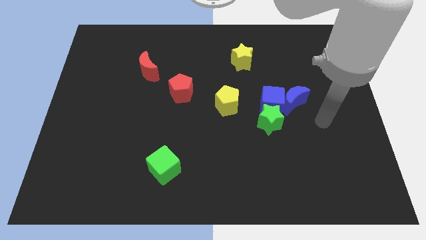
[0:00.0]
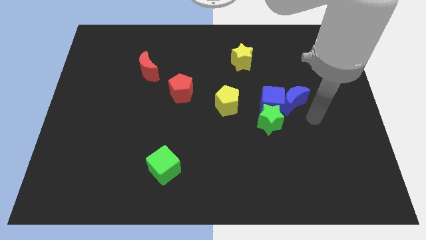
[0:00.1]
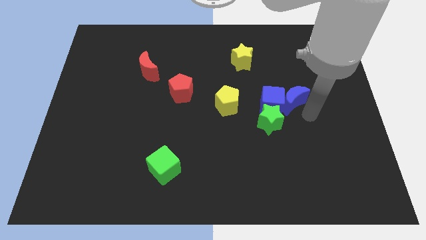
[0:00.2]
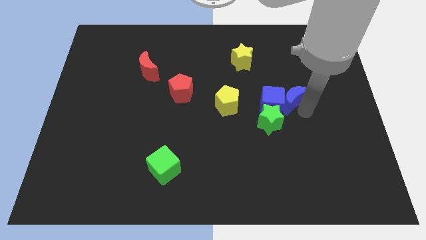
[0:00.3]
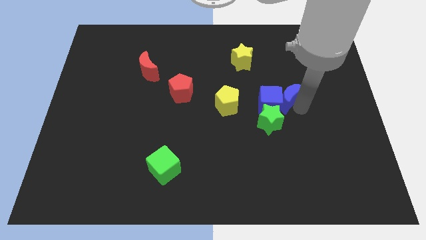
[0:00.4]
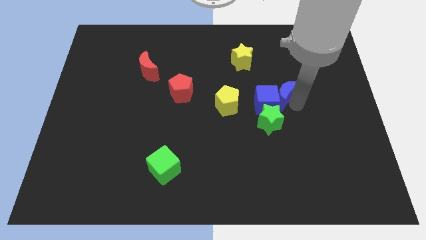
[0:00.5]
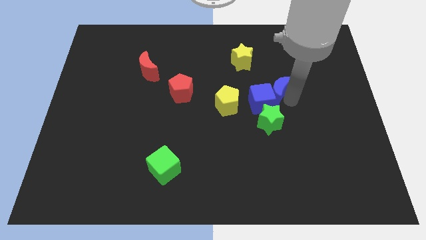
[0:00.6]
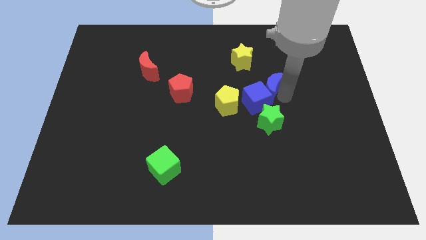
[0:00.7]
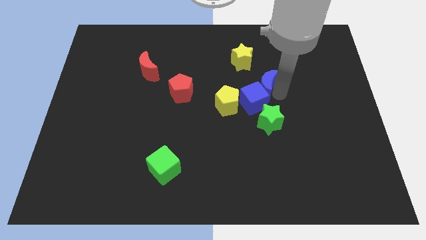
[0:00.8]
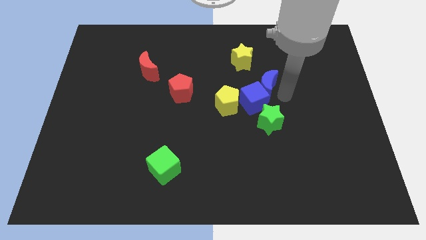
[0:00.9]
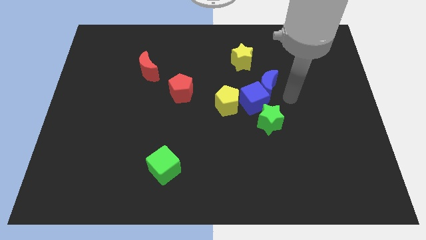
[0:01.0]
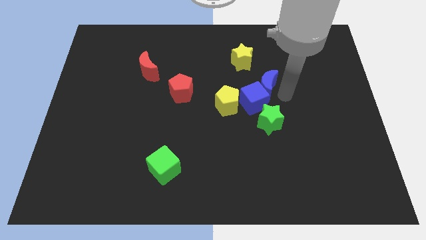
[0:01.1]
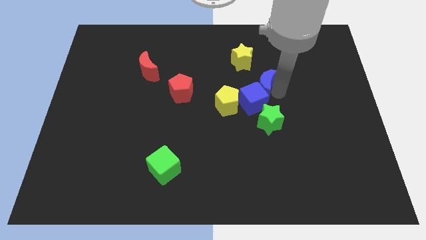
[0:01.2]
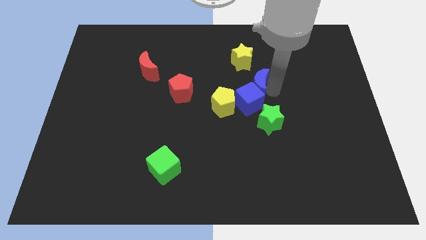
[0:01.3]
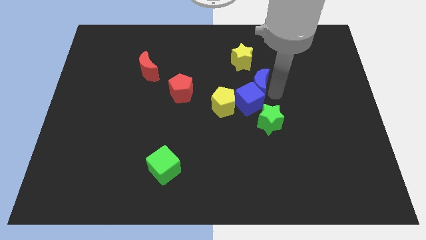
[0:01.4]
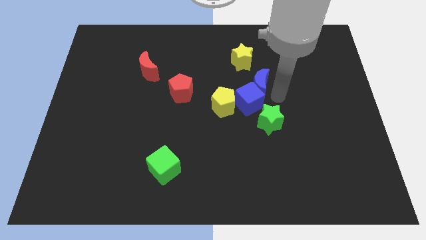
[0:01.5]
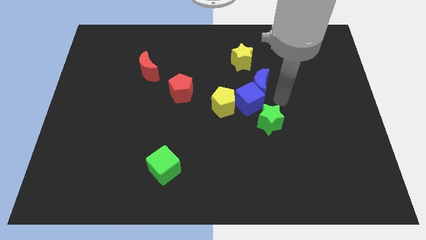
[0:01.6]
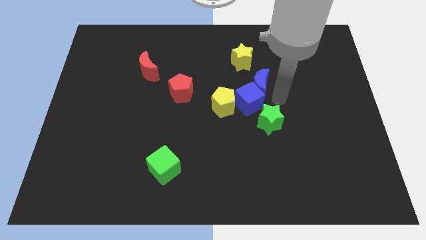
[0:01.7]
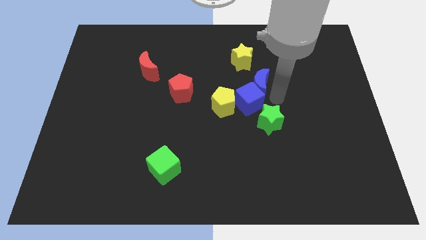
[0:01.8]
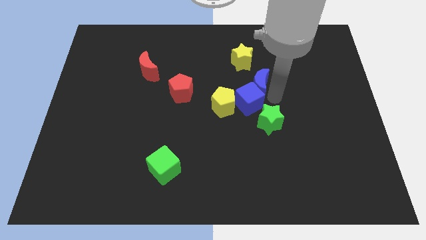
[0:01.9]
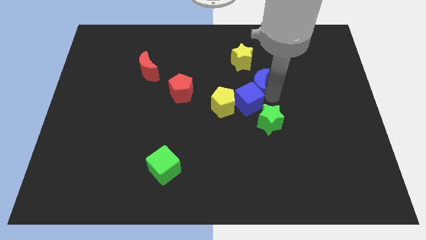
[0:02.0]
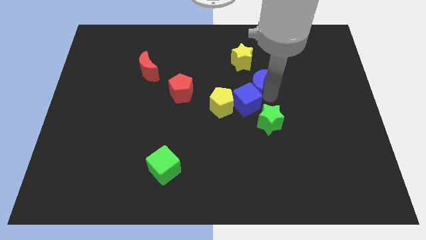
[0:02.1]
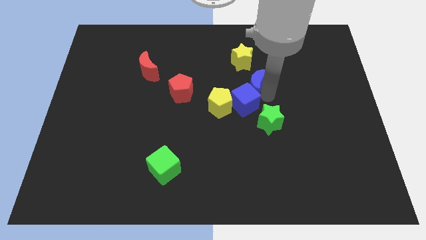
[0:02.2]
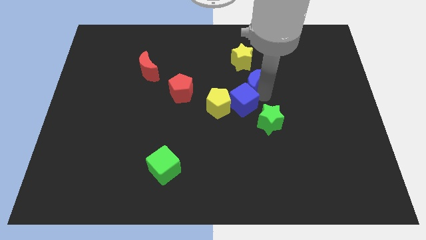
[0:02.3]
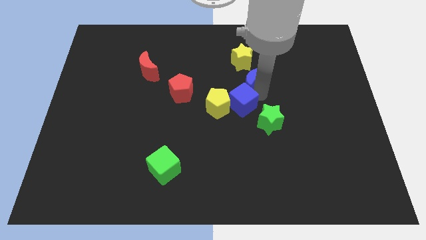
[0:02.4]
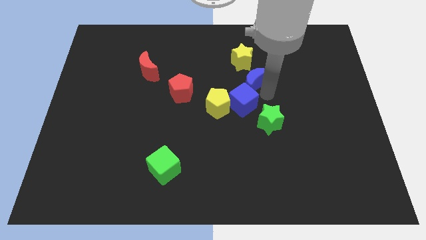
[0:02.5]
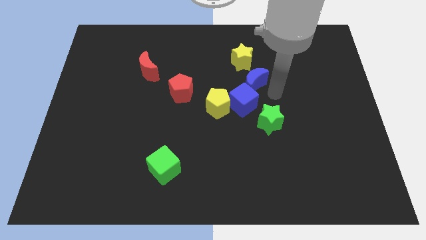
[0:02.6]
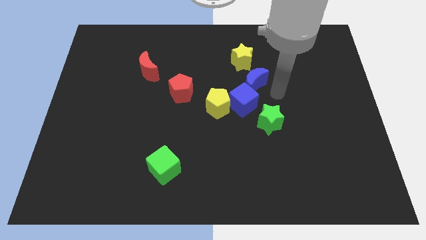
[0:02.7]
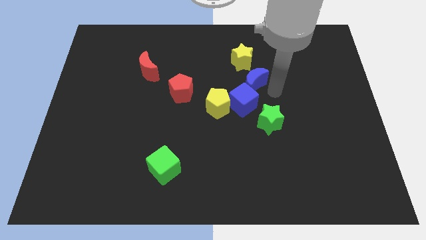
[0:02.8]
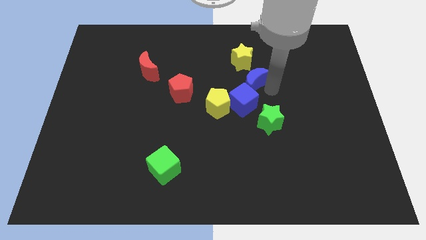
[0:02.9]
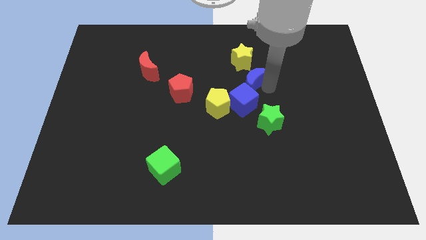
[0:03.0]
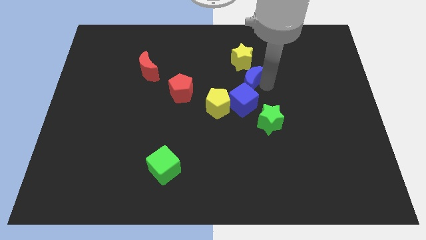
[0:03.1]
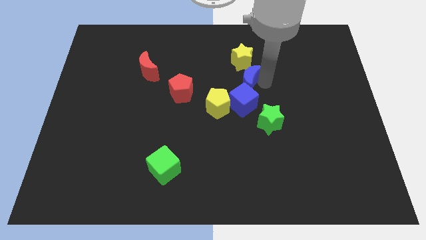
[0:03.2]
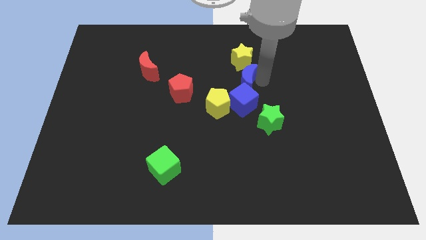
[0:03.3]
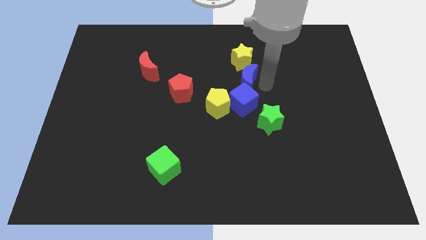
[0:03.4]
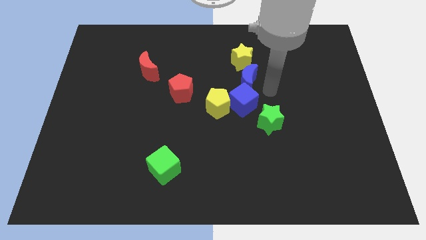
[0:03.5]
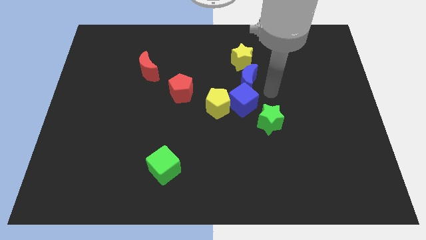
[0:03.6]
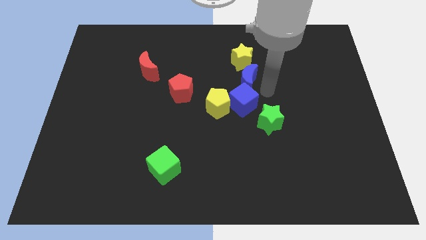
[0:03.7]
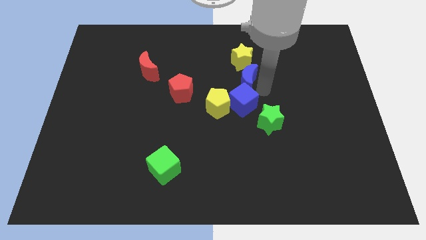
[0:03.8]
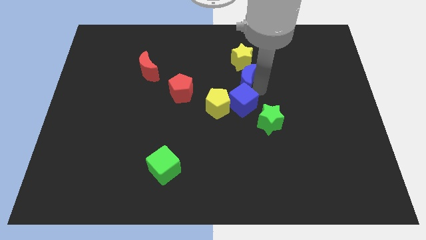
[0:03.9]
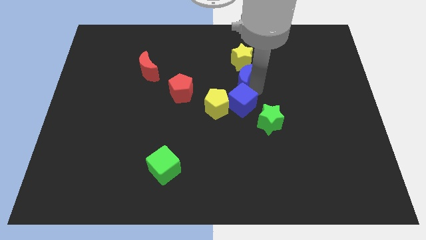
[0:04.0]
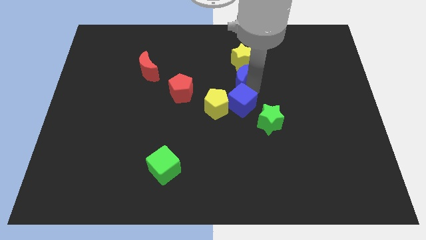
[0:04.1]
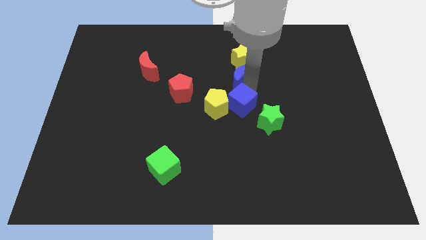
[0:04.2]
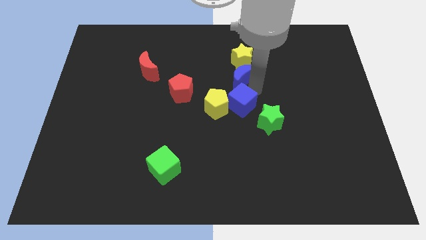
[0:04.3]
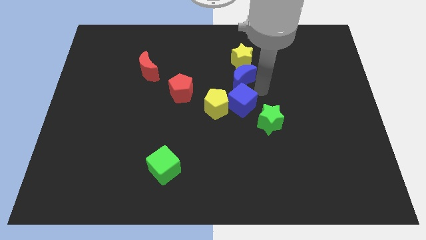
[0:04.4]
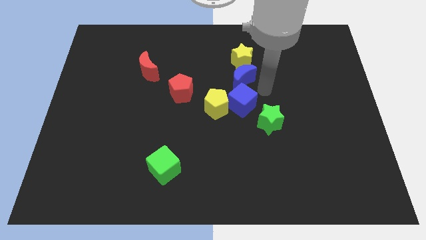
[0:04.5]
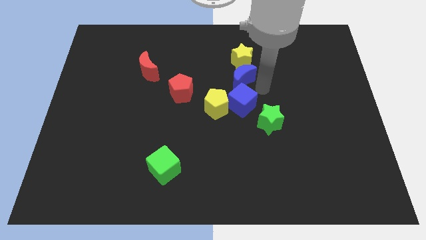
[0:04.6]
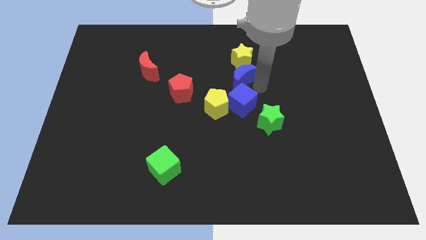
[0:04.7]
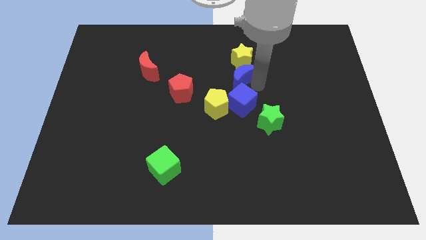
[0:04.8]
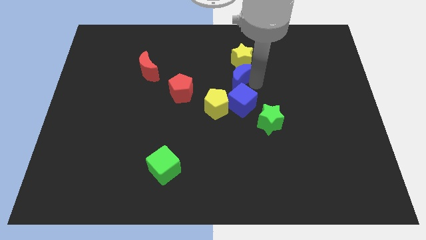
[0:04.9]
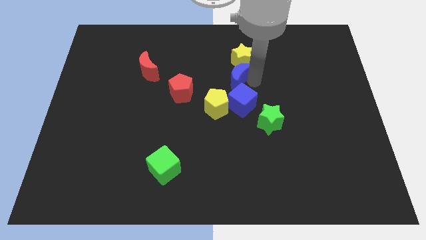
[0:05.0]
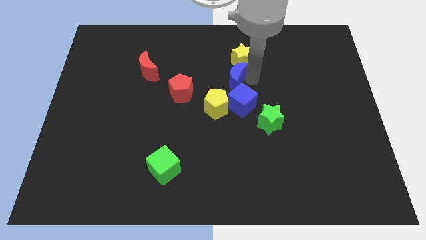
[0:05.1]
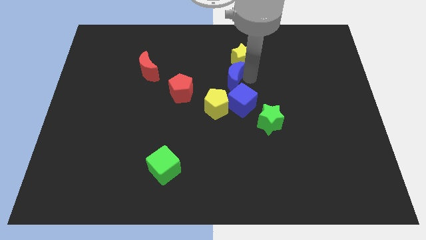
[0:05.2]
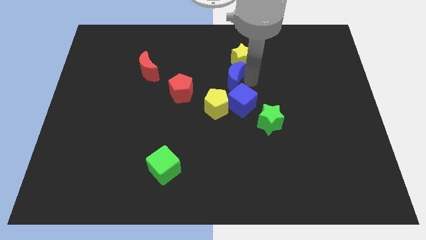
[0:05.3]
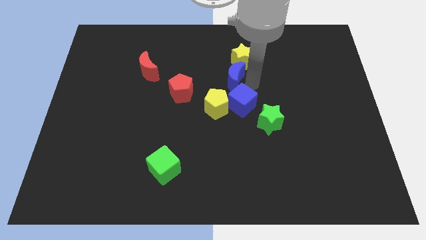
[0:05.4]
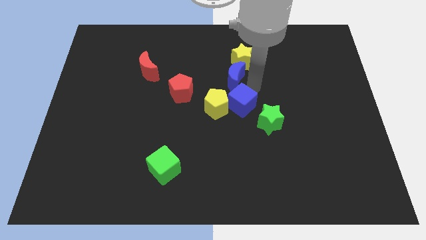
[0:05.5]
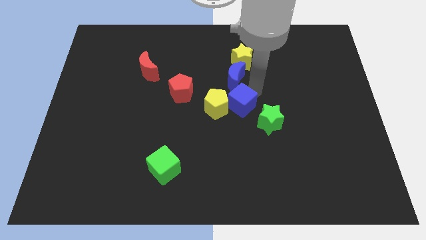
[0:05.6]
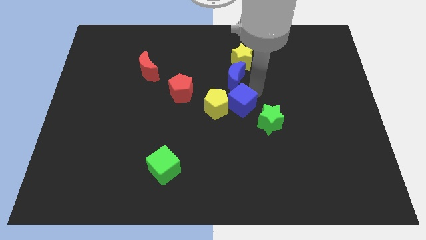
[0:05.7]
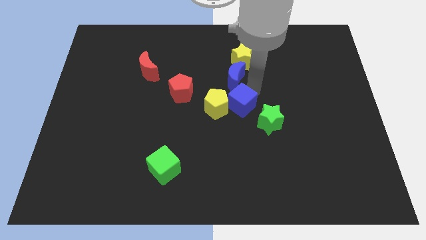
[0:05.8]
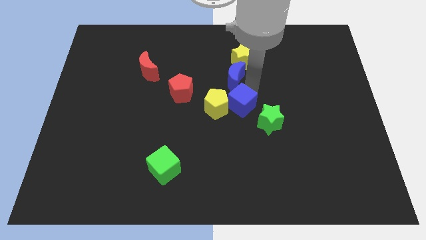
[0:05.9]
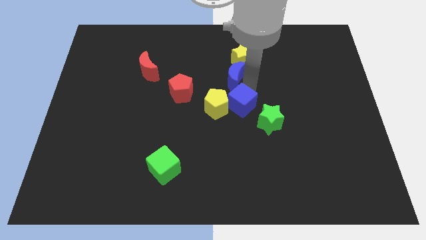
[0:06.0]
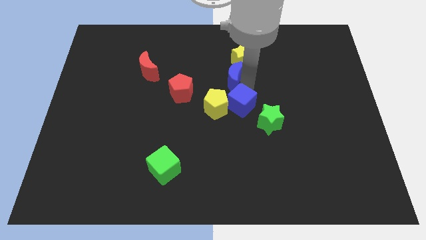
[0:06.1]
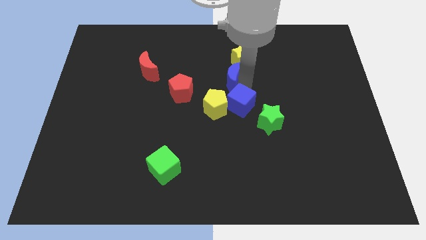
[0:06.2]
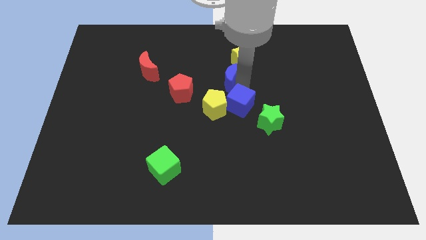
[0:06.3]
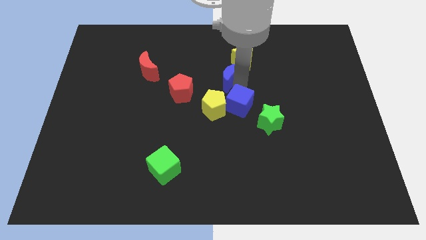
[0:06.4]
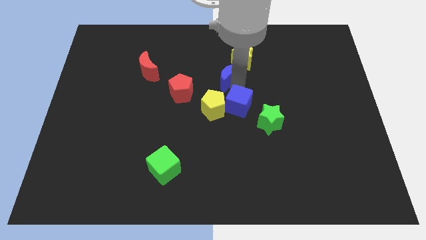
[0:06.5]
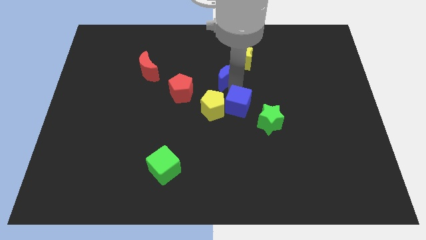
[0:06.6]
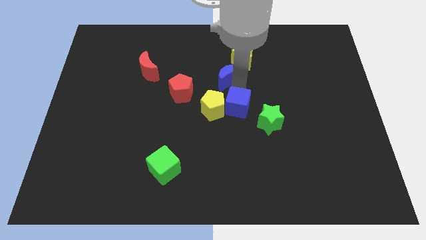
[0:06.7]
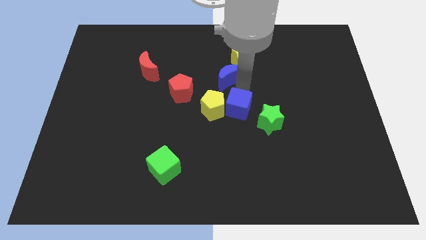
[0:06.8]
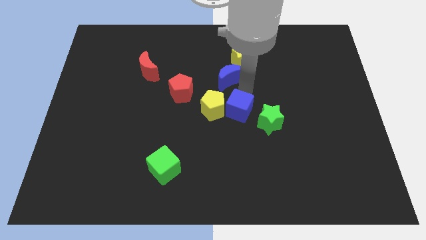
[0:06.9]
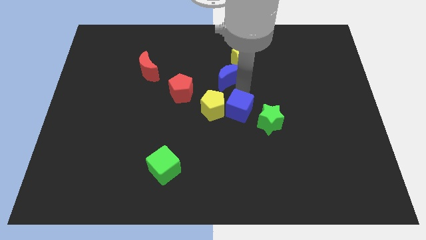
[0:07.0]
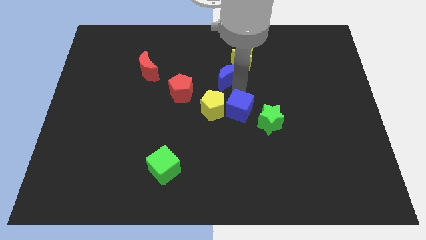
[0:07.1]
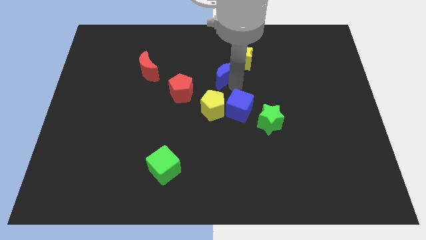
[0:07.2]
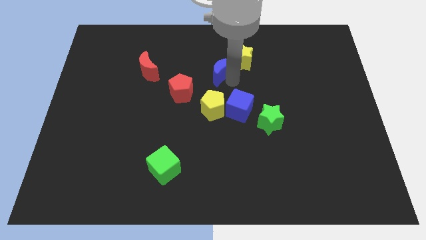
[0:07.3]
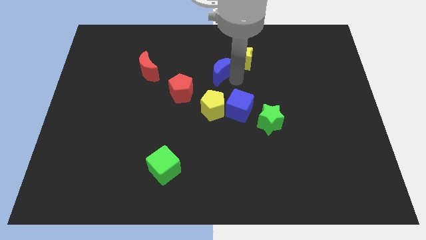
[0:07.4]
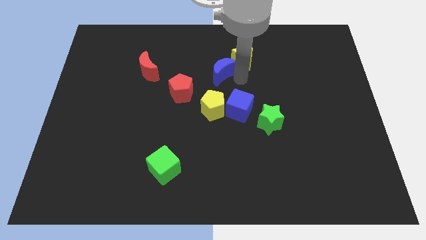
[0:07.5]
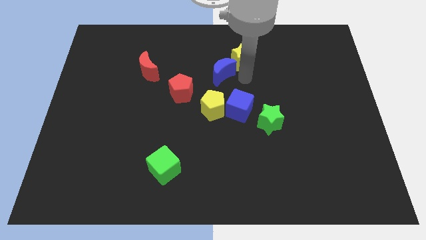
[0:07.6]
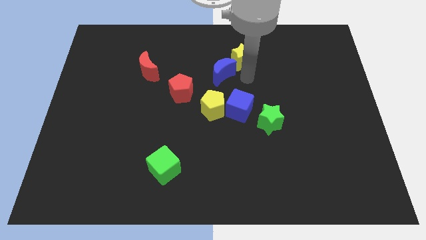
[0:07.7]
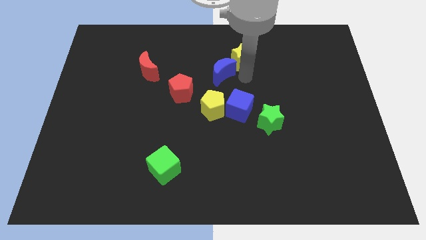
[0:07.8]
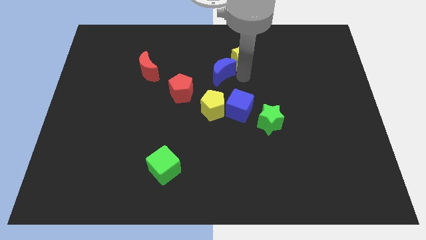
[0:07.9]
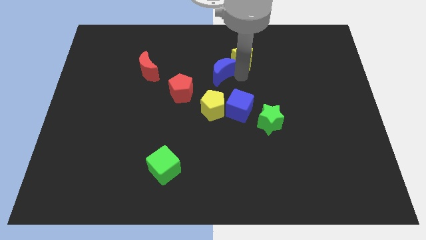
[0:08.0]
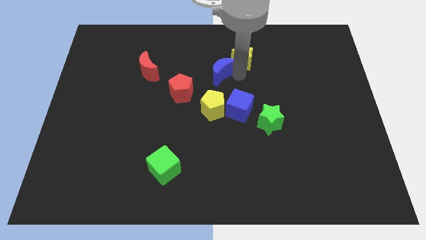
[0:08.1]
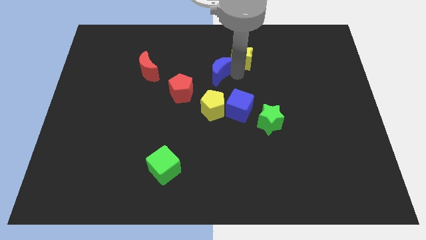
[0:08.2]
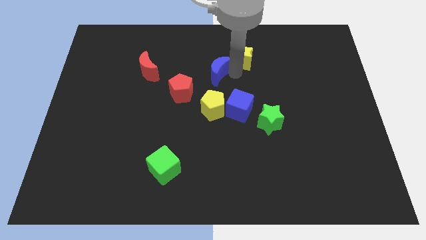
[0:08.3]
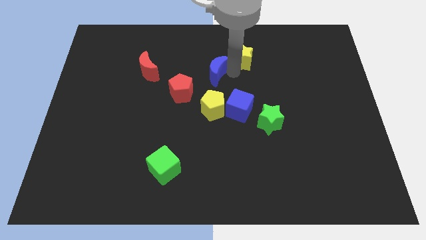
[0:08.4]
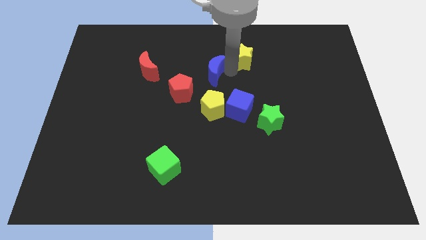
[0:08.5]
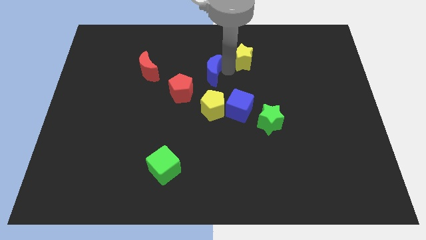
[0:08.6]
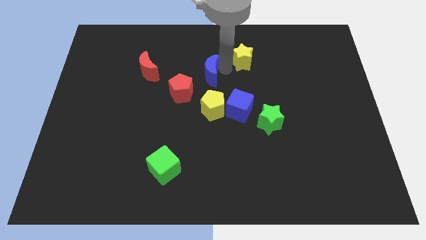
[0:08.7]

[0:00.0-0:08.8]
push the blue moon right of the red moon
